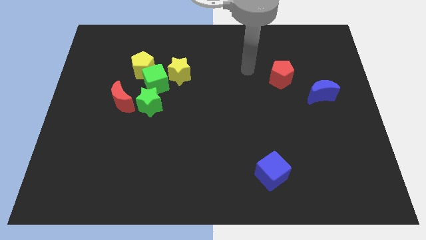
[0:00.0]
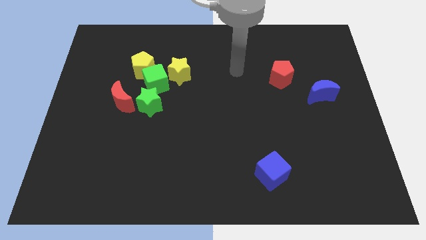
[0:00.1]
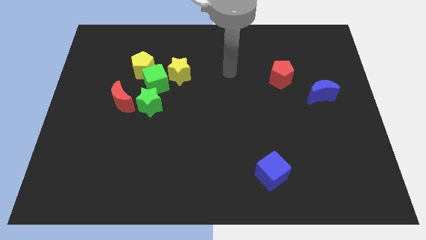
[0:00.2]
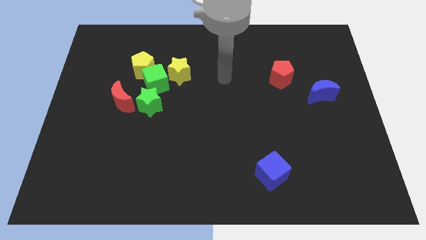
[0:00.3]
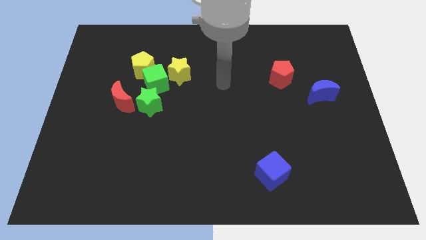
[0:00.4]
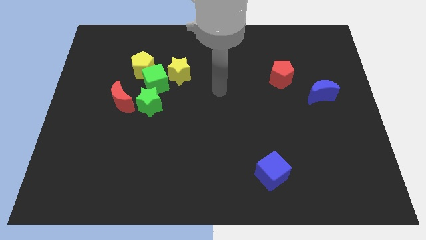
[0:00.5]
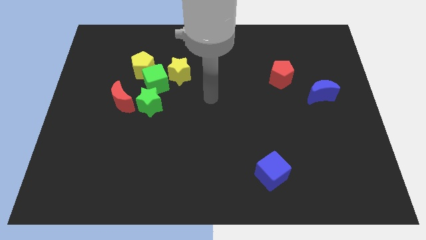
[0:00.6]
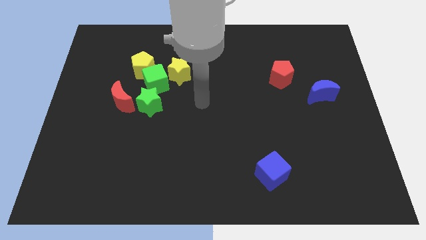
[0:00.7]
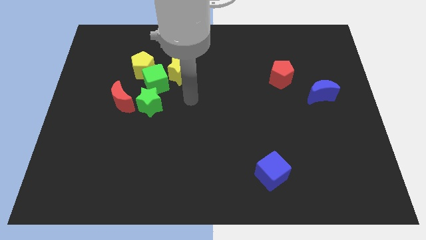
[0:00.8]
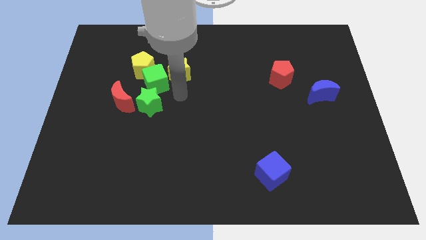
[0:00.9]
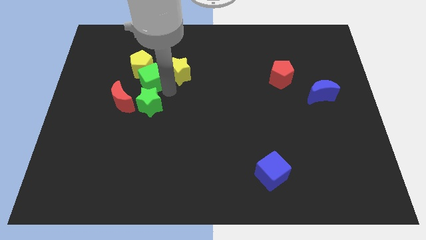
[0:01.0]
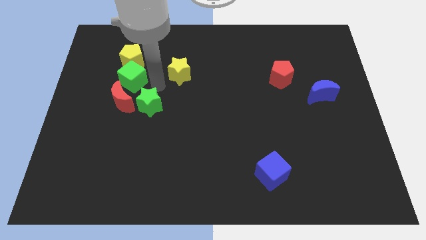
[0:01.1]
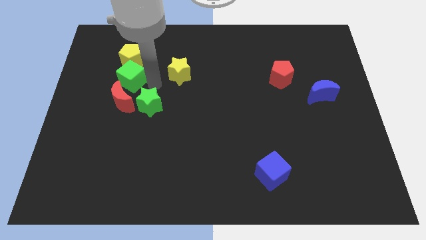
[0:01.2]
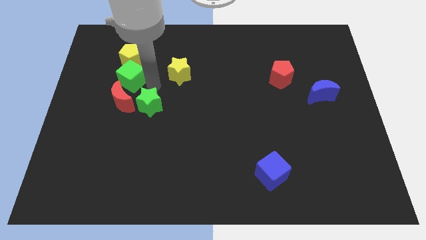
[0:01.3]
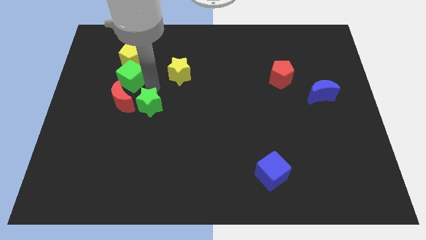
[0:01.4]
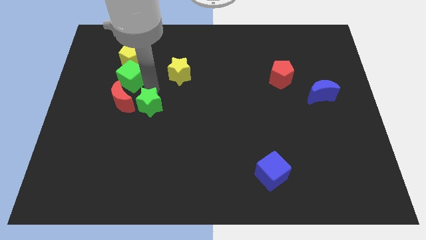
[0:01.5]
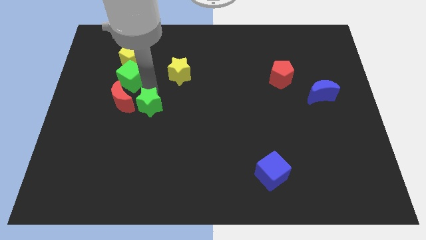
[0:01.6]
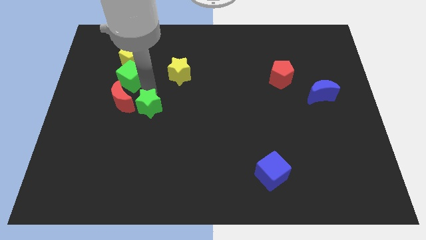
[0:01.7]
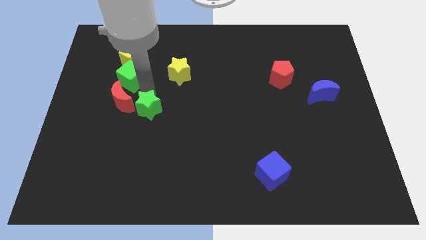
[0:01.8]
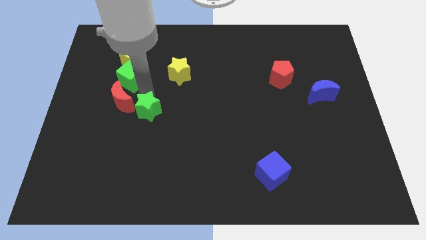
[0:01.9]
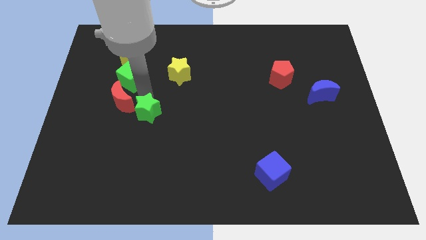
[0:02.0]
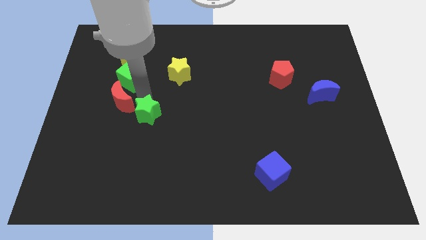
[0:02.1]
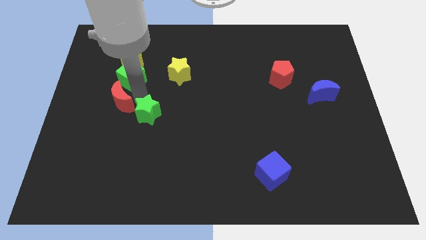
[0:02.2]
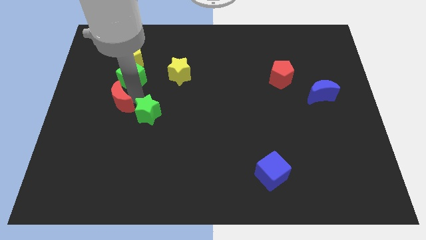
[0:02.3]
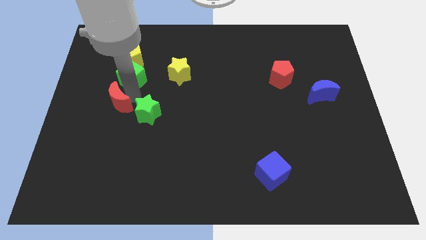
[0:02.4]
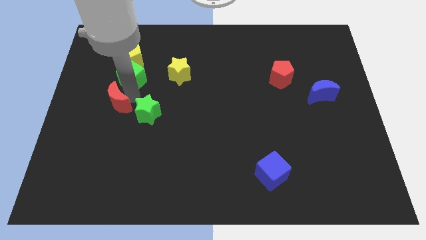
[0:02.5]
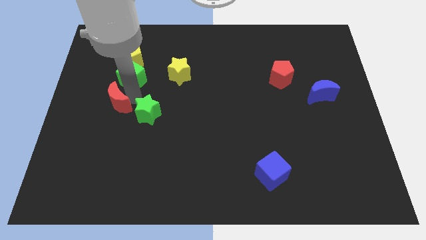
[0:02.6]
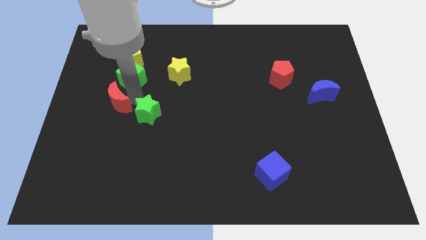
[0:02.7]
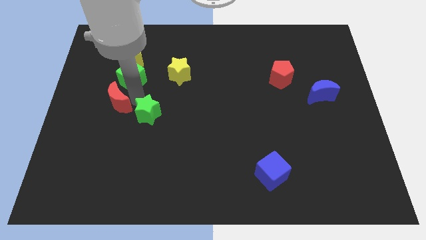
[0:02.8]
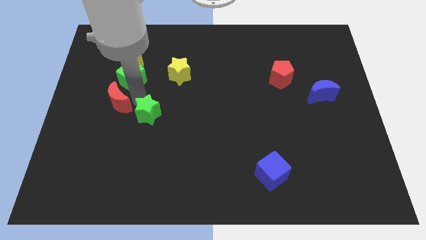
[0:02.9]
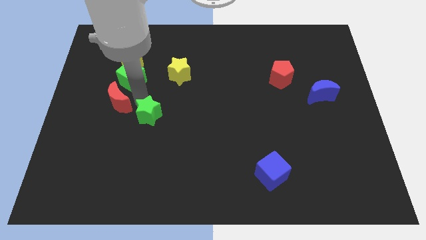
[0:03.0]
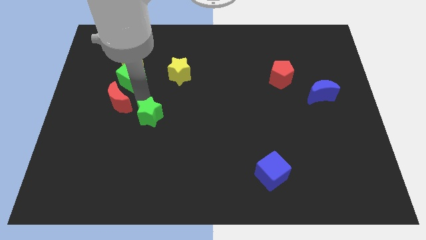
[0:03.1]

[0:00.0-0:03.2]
separate the green star from the green cube and red moon

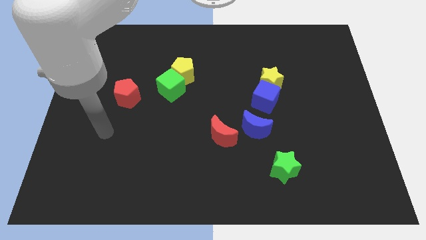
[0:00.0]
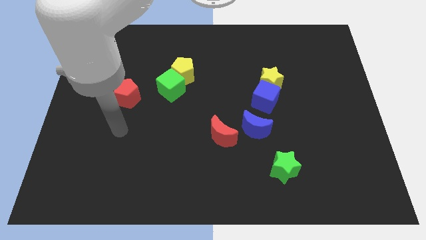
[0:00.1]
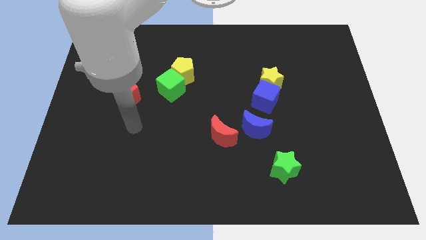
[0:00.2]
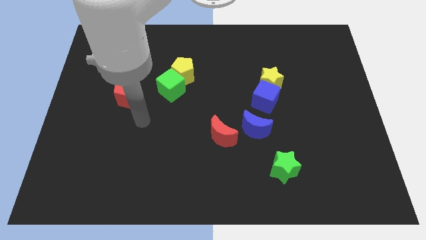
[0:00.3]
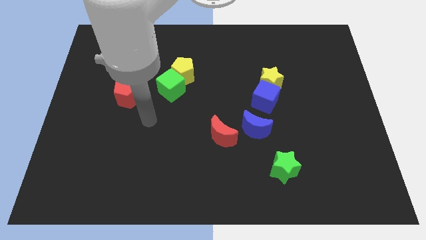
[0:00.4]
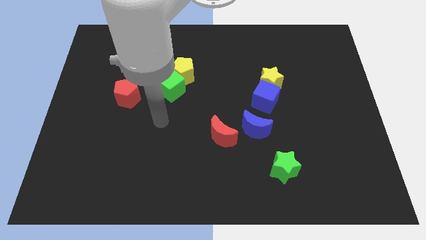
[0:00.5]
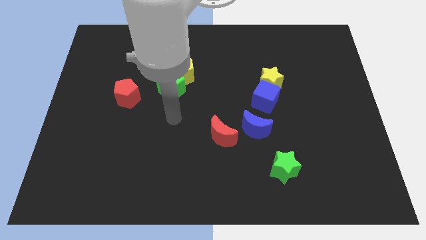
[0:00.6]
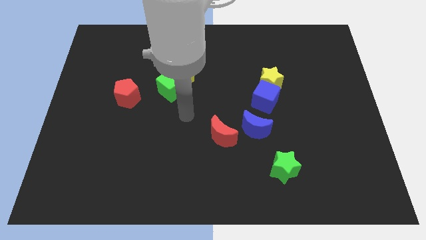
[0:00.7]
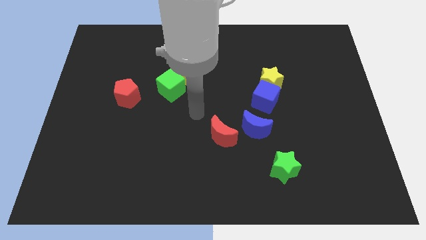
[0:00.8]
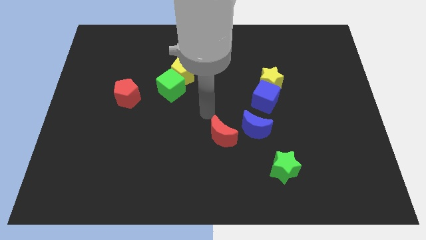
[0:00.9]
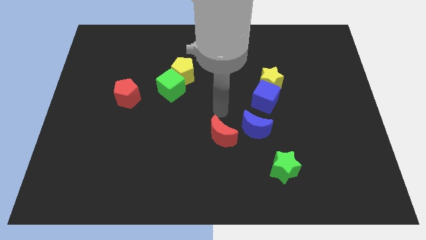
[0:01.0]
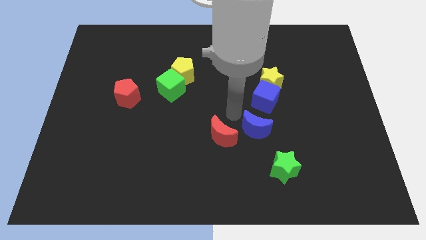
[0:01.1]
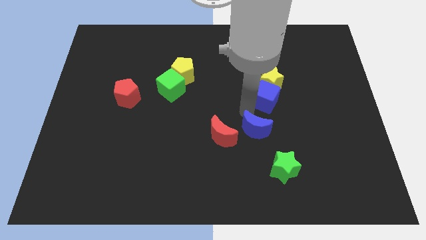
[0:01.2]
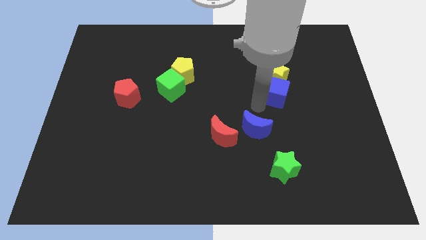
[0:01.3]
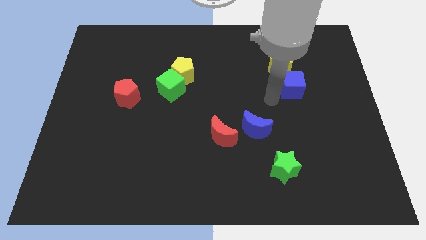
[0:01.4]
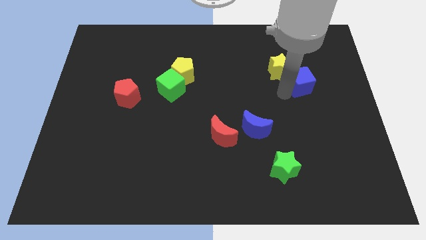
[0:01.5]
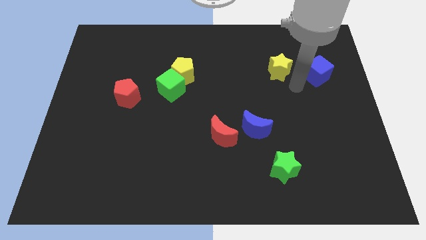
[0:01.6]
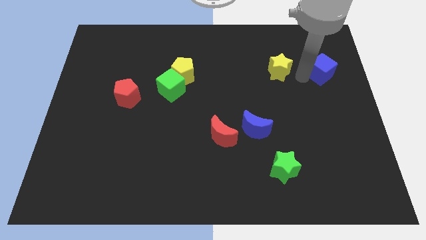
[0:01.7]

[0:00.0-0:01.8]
pull the yellow star apart from the blue cube

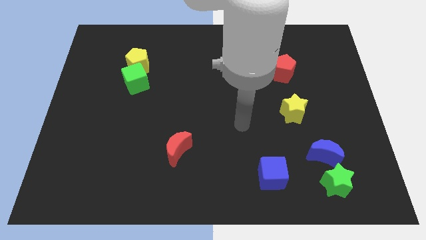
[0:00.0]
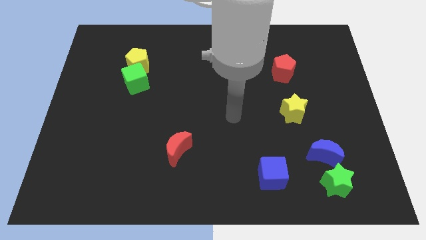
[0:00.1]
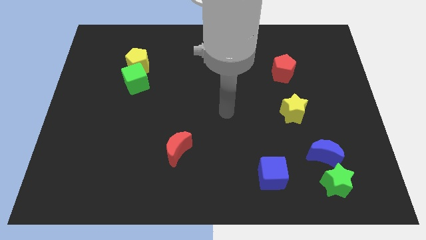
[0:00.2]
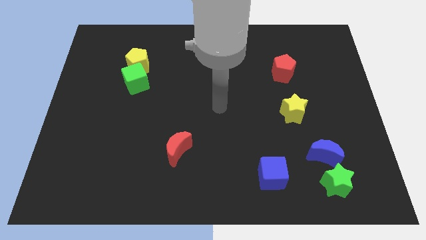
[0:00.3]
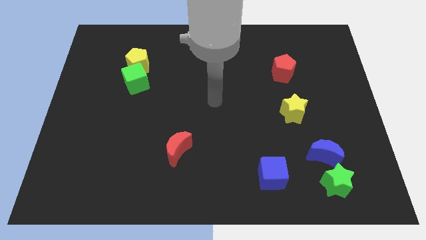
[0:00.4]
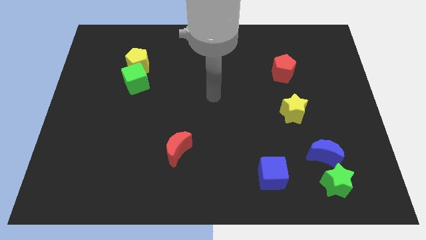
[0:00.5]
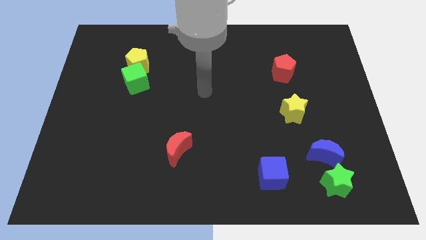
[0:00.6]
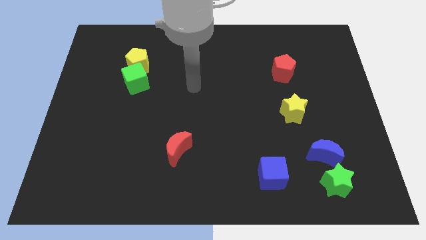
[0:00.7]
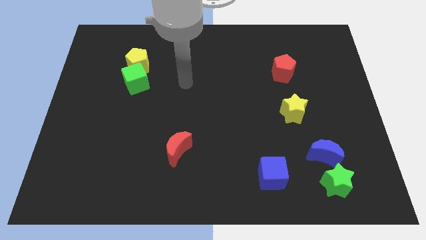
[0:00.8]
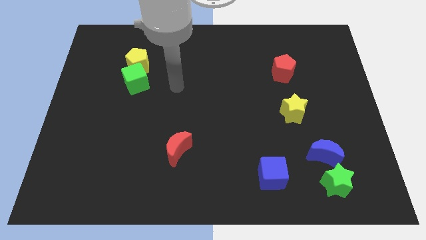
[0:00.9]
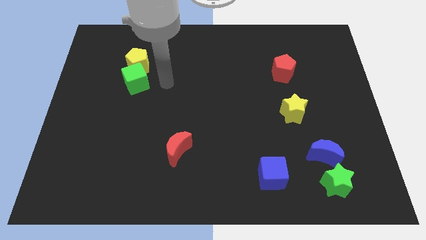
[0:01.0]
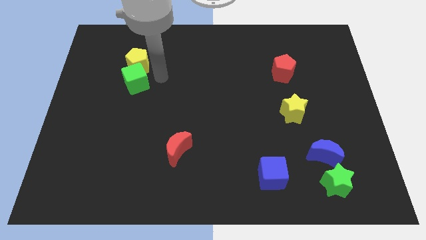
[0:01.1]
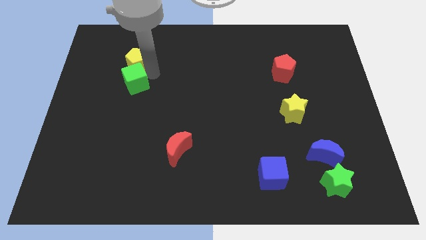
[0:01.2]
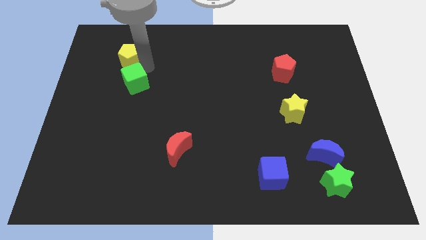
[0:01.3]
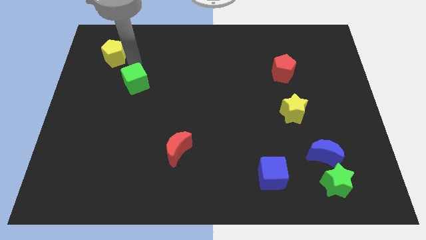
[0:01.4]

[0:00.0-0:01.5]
separate the green cube from the yellow pentagon

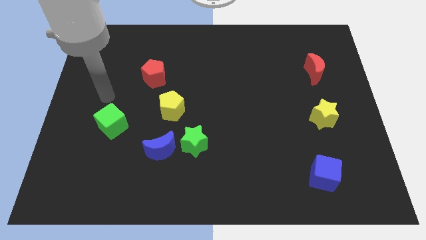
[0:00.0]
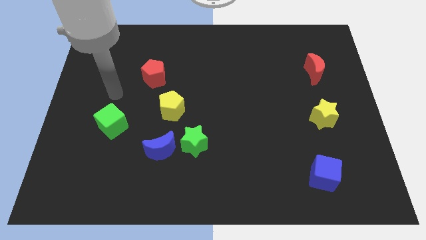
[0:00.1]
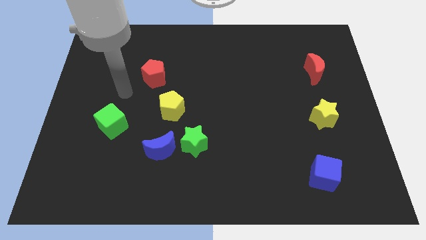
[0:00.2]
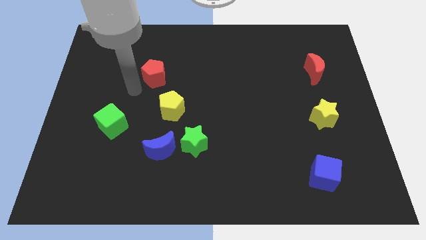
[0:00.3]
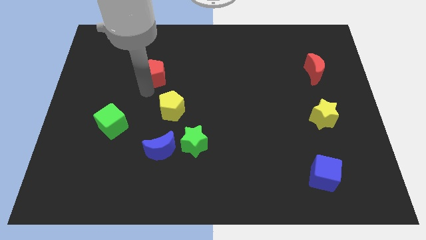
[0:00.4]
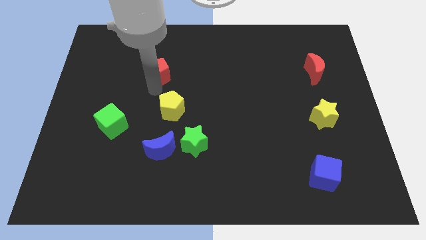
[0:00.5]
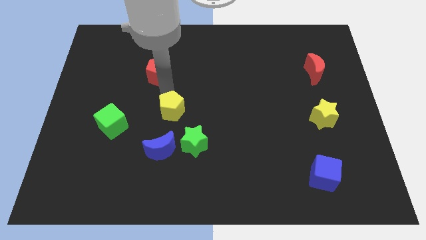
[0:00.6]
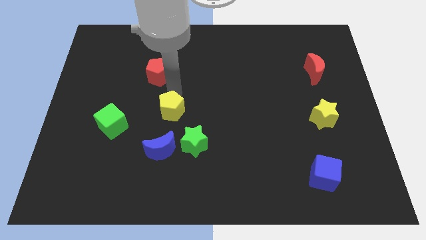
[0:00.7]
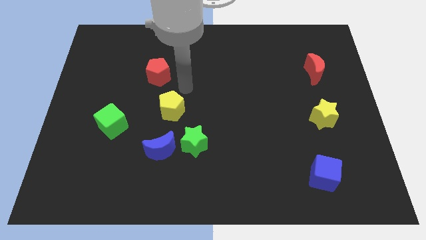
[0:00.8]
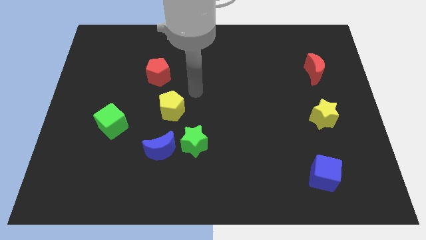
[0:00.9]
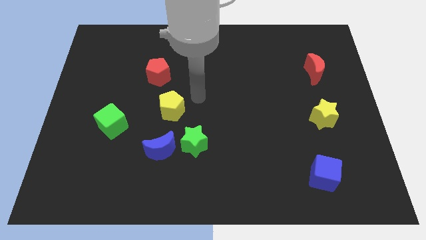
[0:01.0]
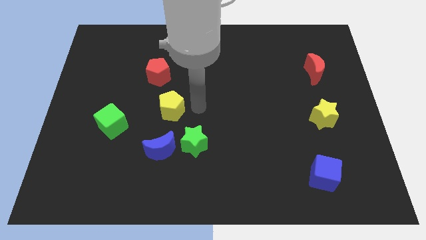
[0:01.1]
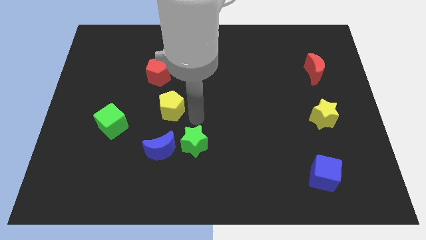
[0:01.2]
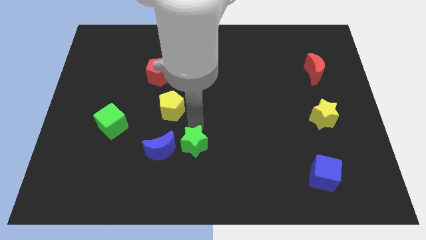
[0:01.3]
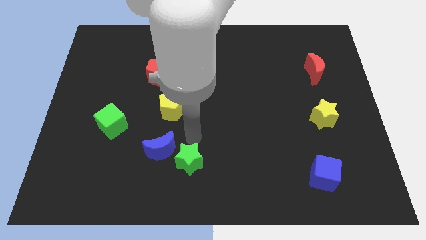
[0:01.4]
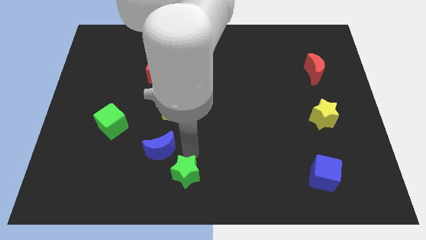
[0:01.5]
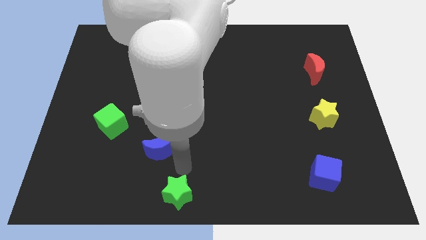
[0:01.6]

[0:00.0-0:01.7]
move the blue moon away from the green star

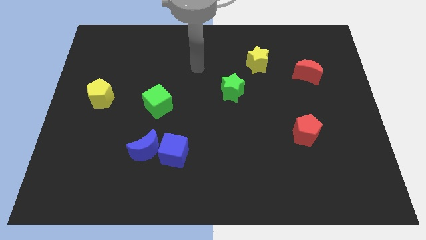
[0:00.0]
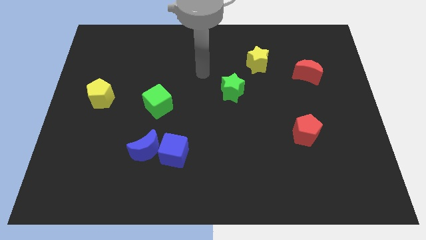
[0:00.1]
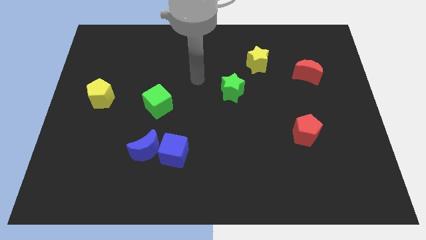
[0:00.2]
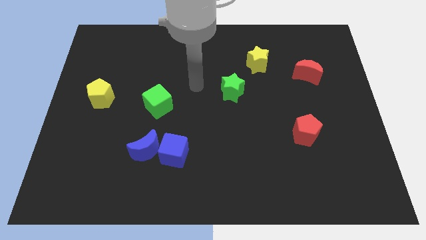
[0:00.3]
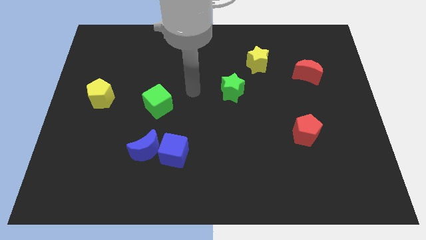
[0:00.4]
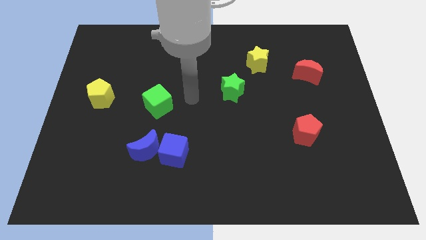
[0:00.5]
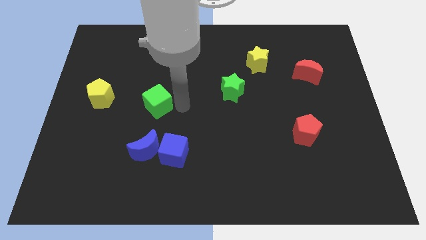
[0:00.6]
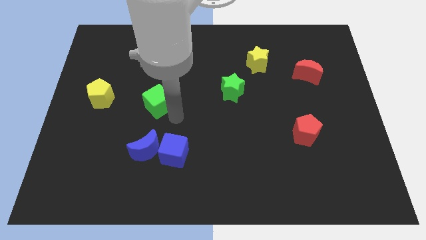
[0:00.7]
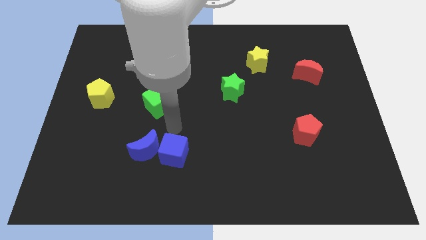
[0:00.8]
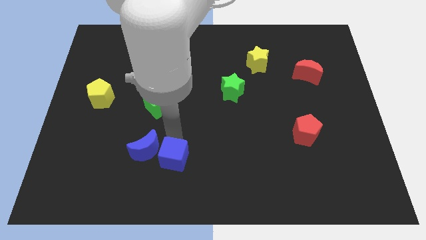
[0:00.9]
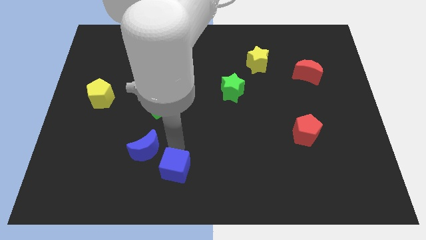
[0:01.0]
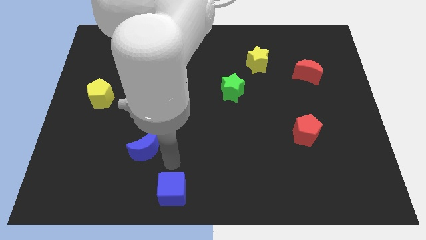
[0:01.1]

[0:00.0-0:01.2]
pull the blue moon apart from the blue cube
